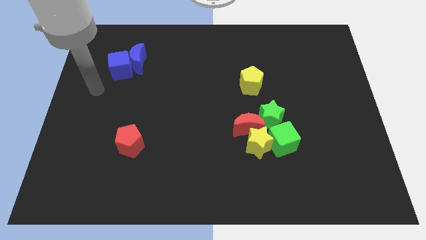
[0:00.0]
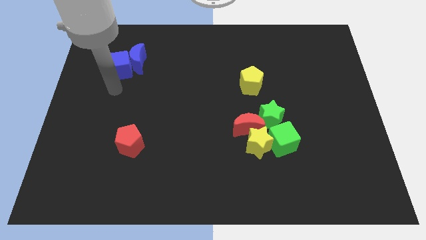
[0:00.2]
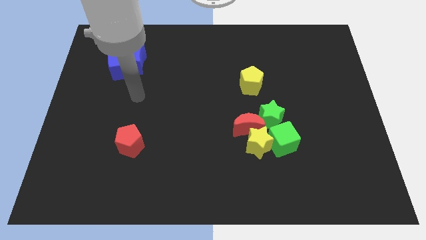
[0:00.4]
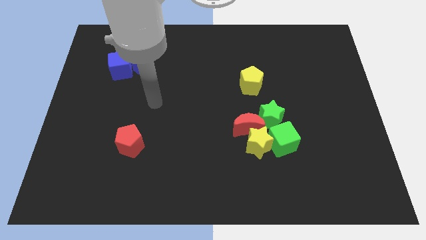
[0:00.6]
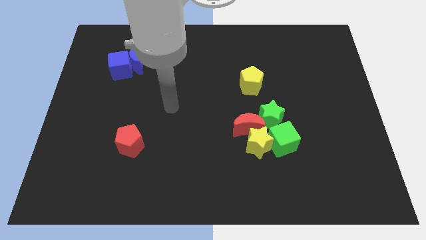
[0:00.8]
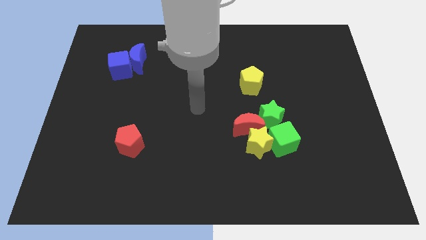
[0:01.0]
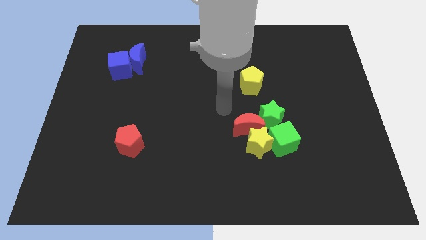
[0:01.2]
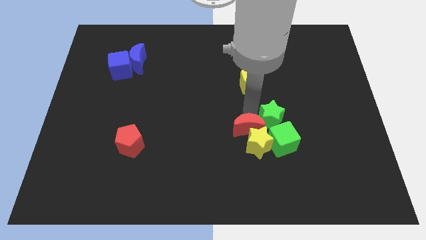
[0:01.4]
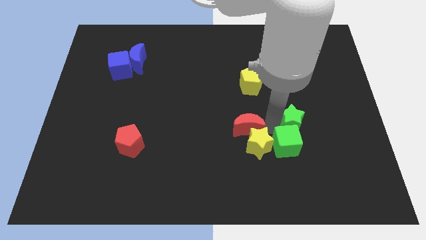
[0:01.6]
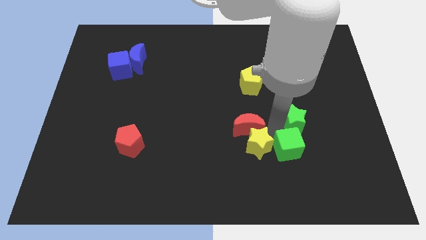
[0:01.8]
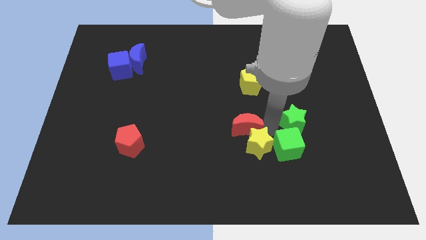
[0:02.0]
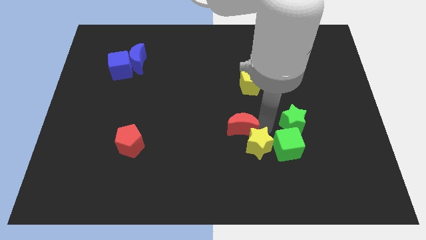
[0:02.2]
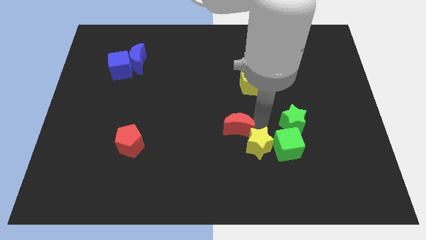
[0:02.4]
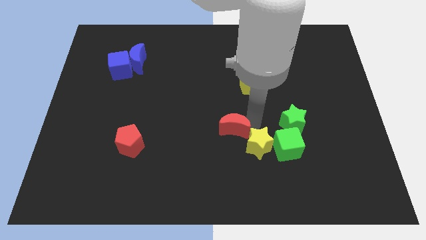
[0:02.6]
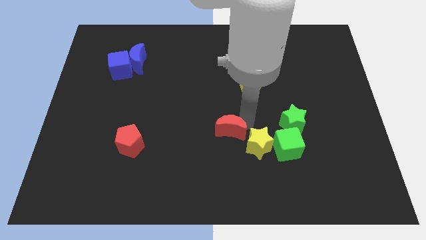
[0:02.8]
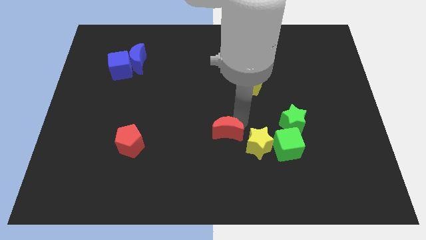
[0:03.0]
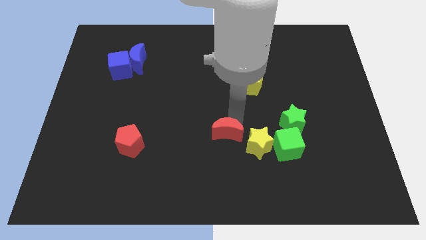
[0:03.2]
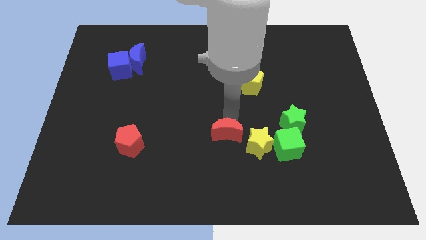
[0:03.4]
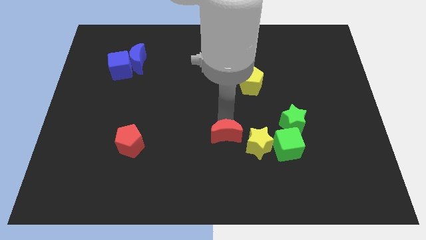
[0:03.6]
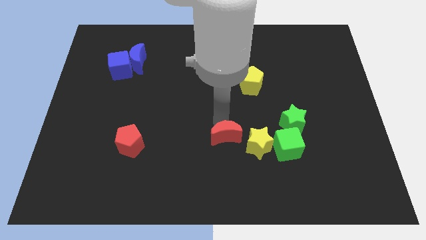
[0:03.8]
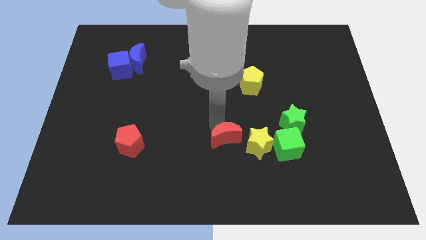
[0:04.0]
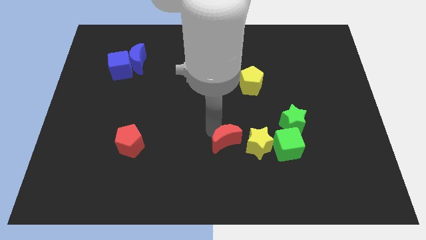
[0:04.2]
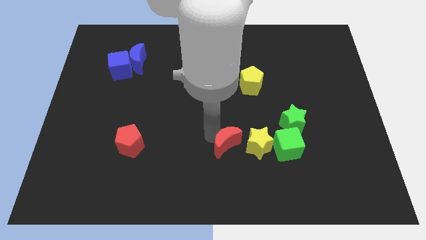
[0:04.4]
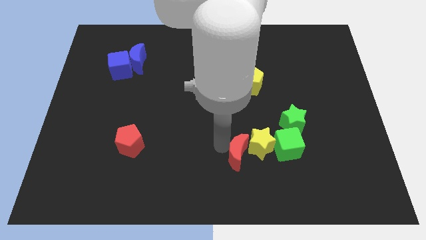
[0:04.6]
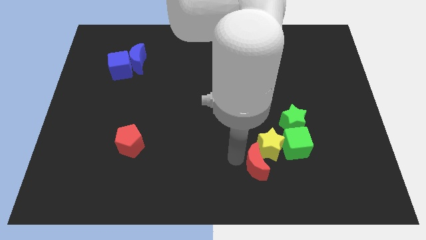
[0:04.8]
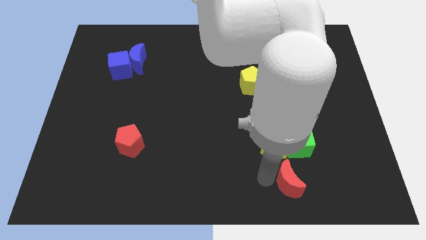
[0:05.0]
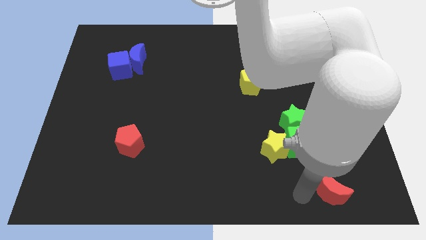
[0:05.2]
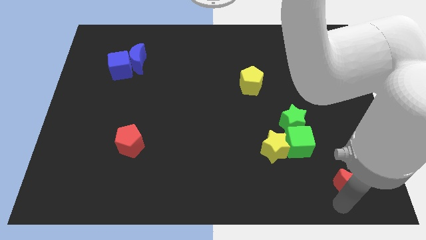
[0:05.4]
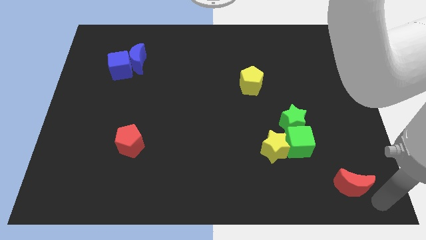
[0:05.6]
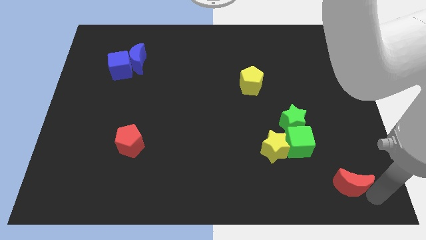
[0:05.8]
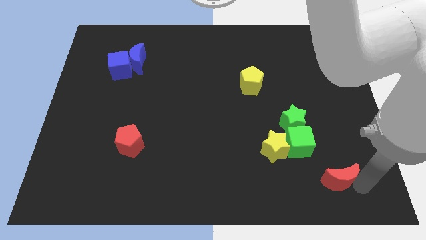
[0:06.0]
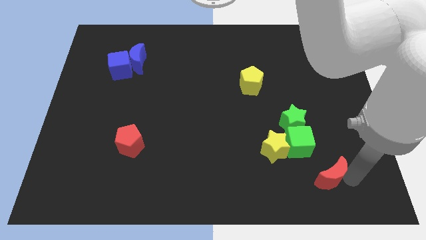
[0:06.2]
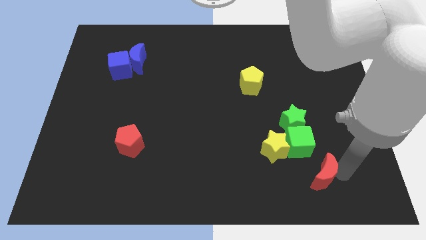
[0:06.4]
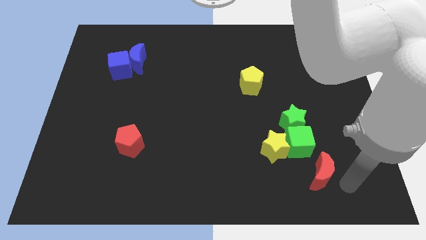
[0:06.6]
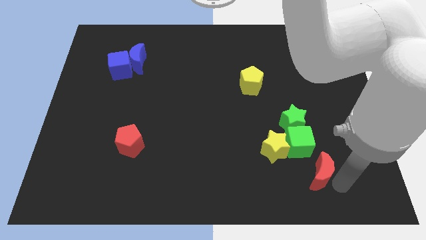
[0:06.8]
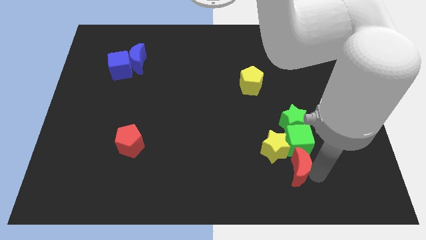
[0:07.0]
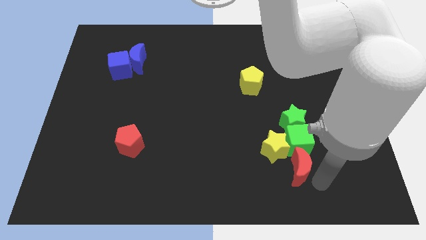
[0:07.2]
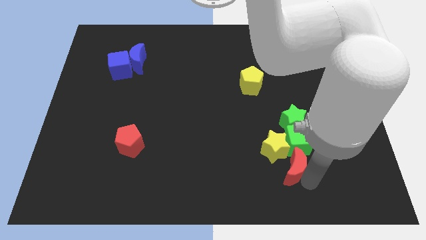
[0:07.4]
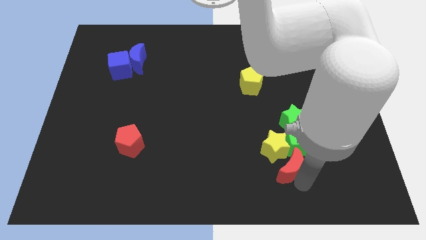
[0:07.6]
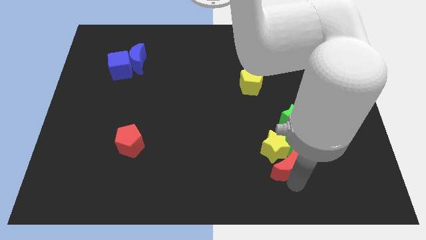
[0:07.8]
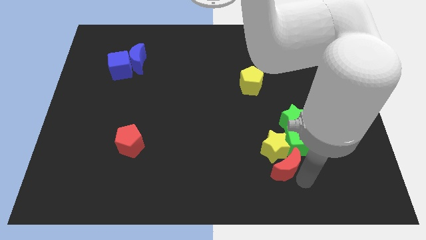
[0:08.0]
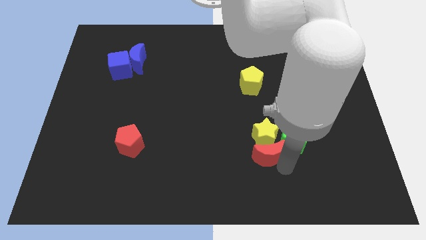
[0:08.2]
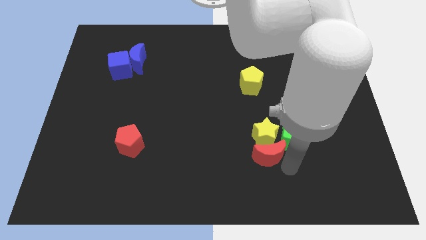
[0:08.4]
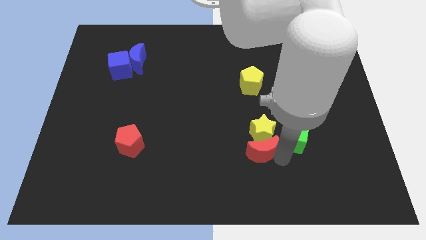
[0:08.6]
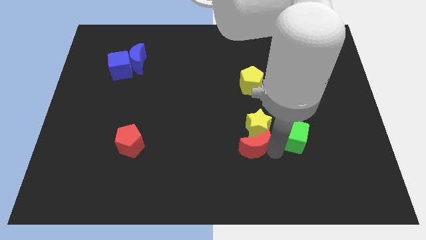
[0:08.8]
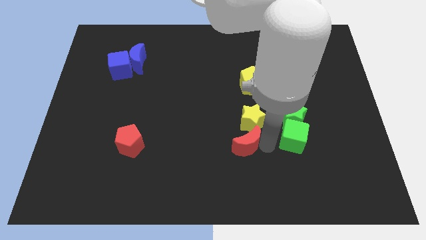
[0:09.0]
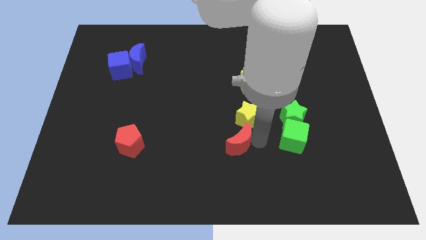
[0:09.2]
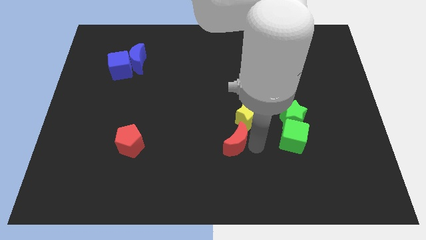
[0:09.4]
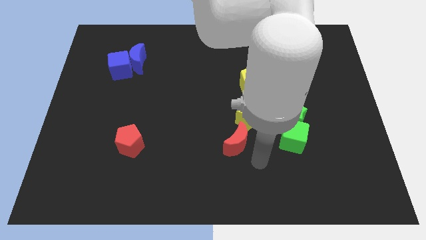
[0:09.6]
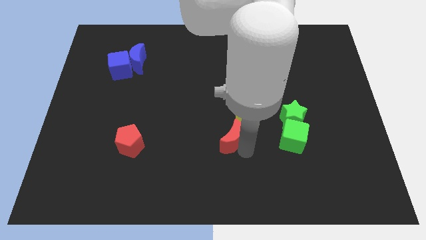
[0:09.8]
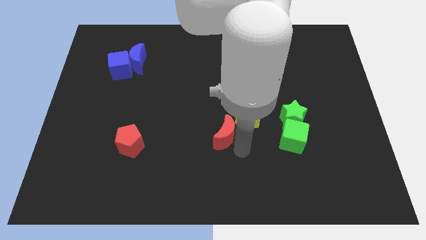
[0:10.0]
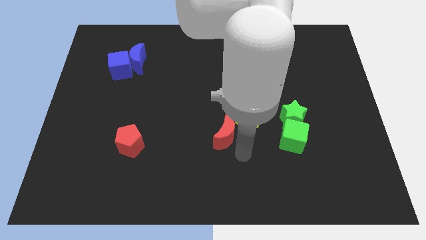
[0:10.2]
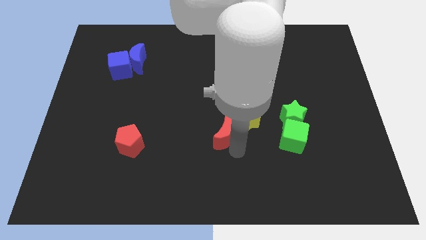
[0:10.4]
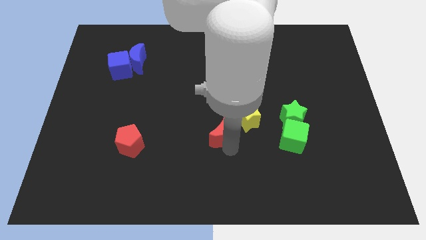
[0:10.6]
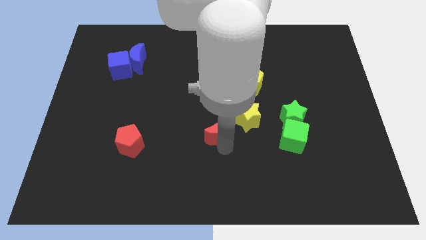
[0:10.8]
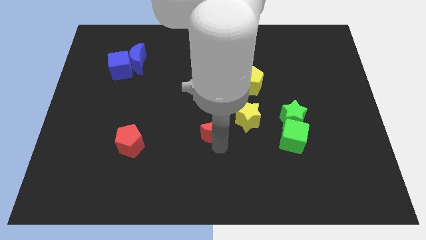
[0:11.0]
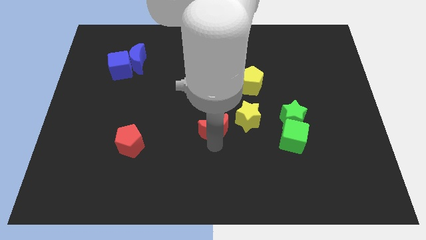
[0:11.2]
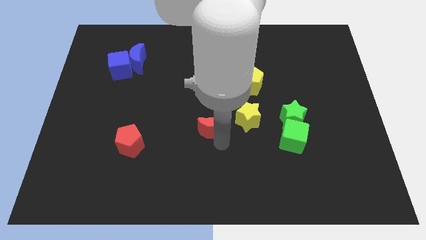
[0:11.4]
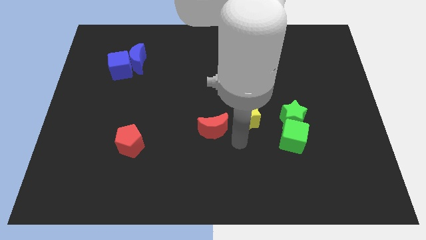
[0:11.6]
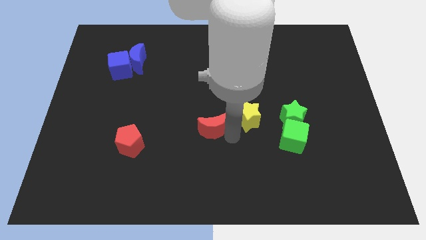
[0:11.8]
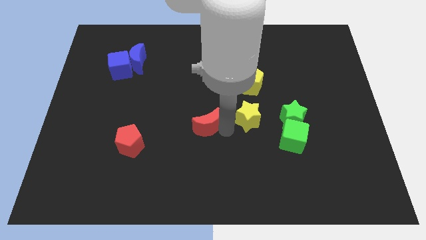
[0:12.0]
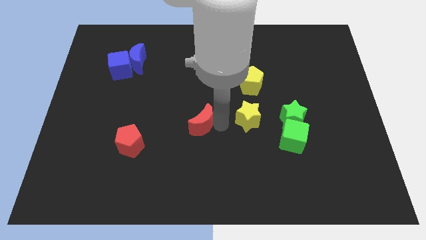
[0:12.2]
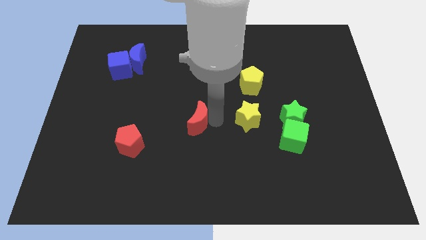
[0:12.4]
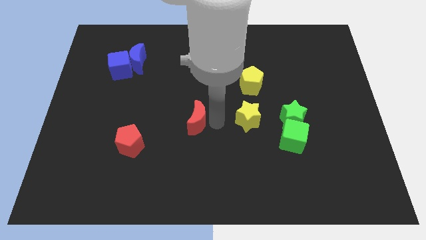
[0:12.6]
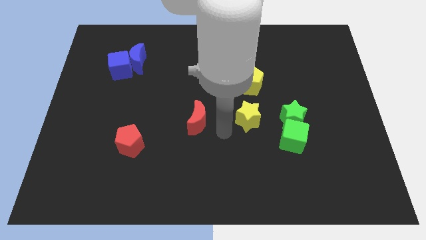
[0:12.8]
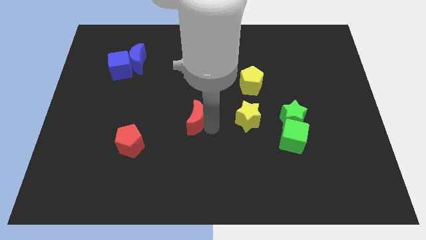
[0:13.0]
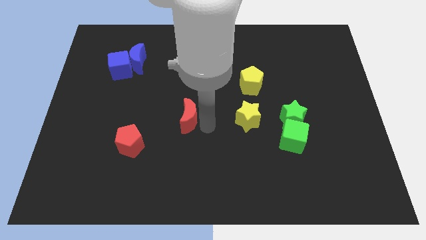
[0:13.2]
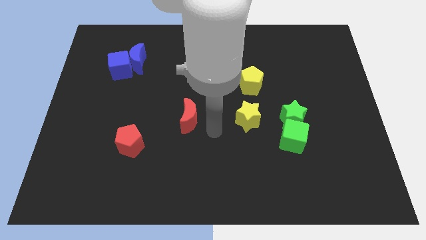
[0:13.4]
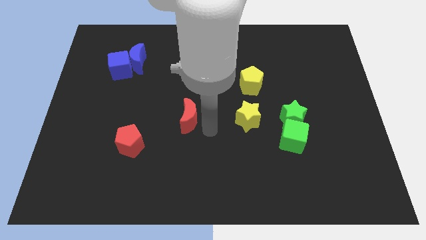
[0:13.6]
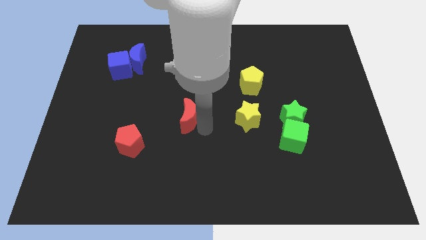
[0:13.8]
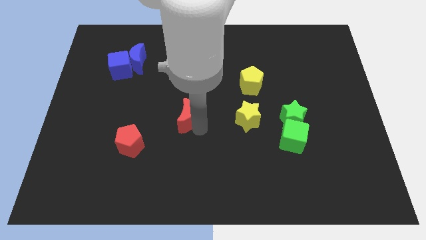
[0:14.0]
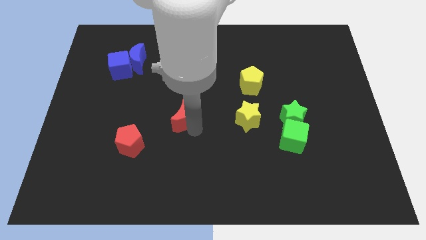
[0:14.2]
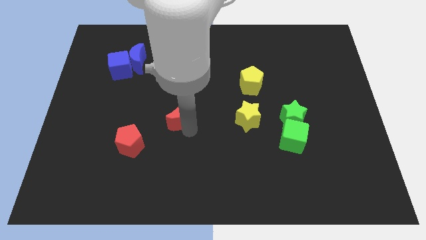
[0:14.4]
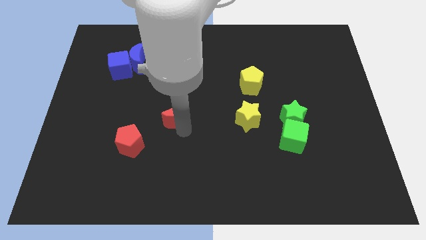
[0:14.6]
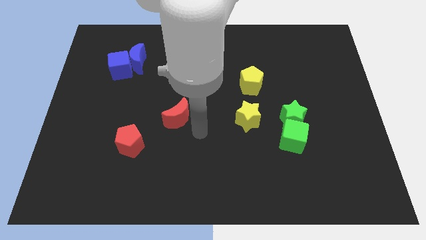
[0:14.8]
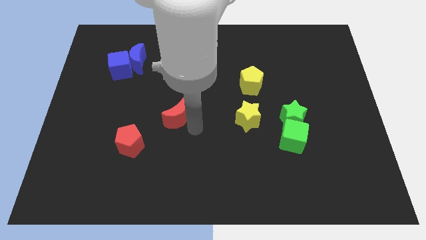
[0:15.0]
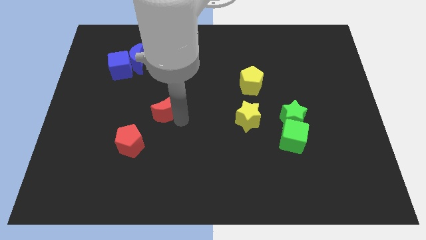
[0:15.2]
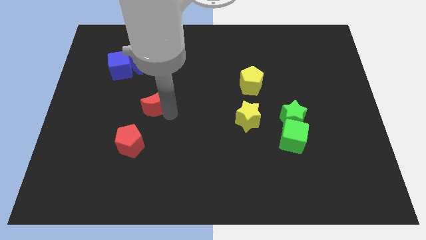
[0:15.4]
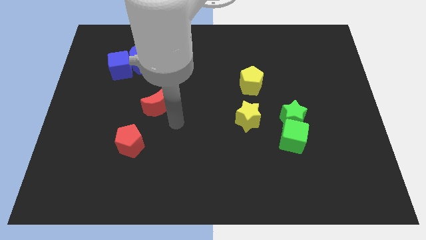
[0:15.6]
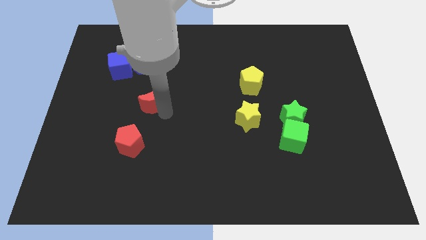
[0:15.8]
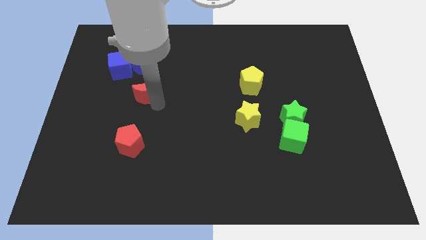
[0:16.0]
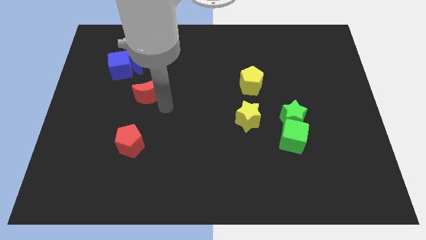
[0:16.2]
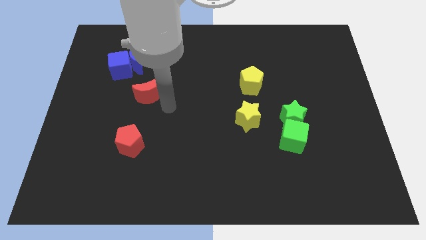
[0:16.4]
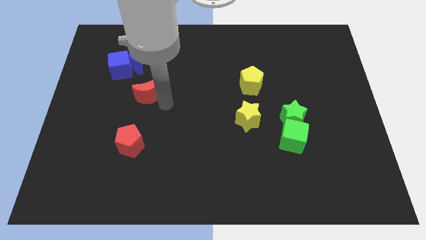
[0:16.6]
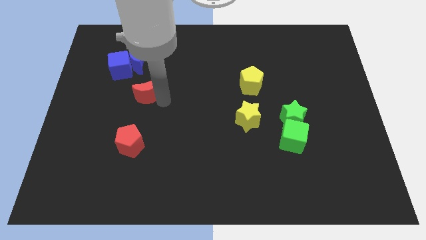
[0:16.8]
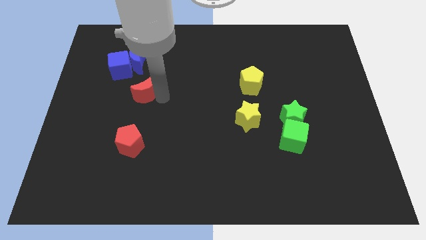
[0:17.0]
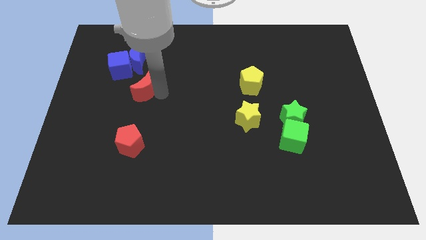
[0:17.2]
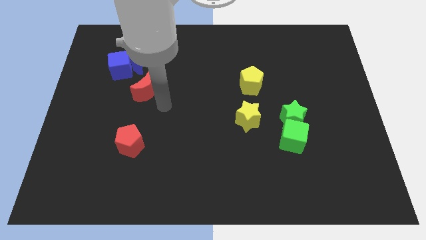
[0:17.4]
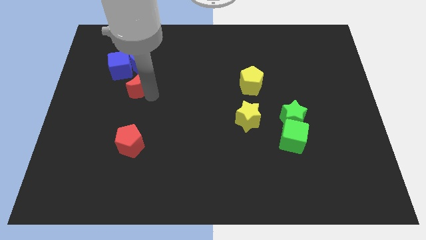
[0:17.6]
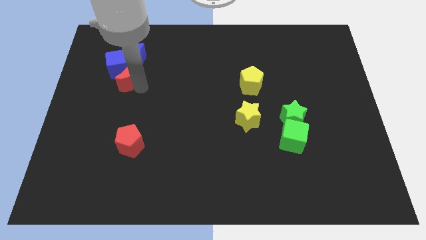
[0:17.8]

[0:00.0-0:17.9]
move the red moon towards the blue cube
